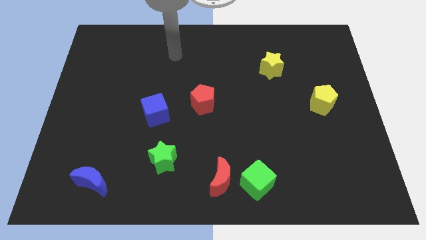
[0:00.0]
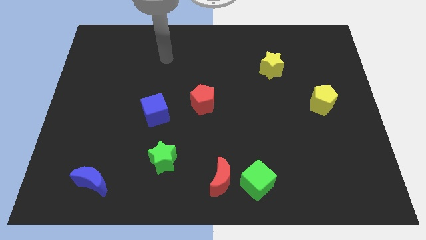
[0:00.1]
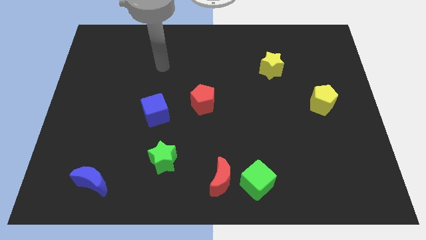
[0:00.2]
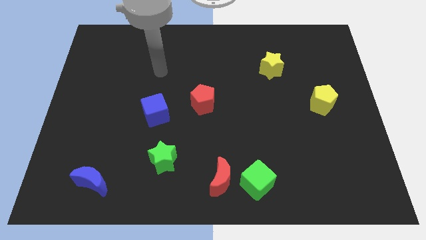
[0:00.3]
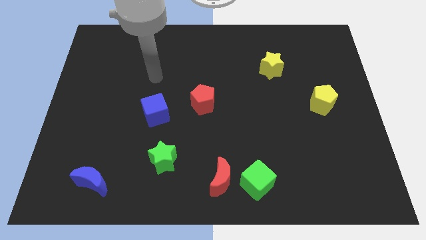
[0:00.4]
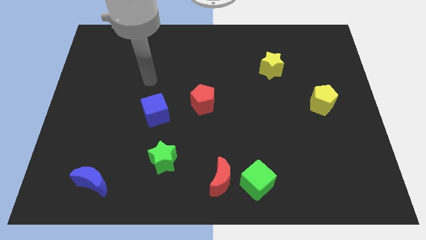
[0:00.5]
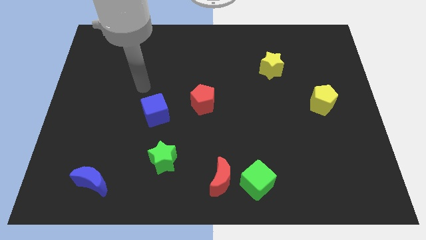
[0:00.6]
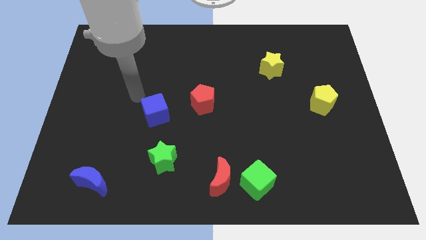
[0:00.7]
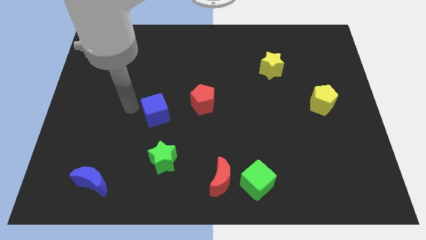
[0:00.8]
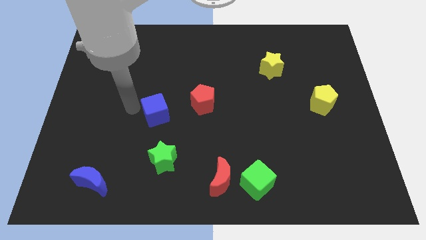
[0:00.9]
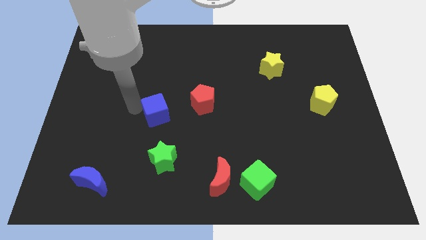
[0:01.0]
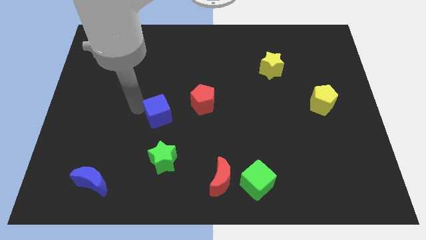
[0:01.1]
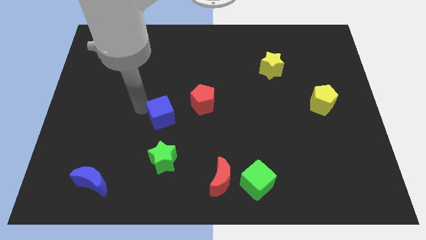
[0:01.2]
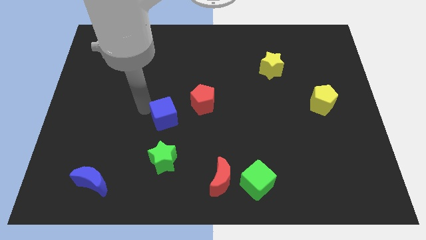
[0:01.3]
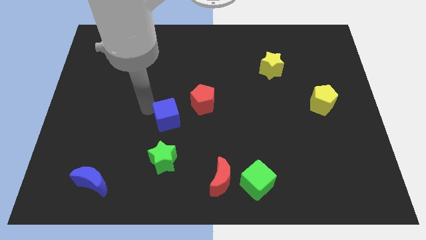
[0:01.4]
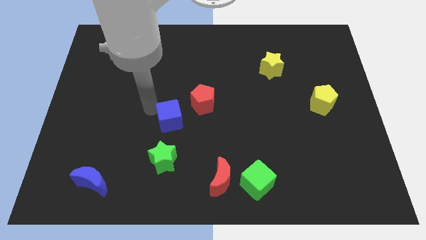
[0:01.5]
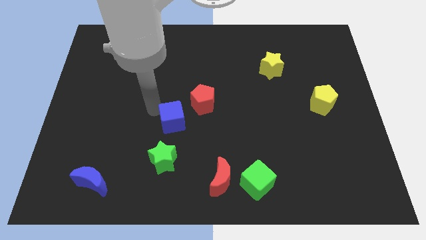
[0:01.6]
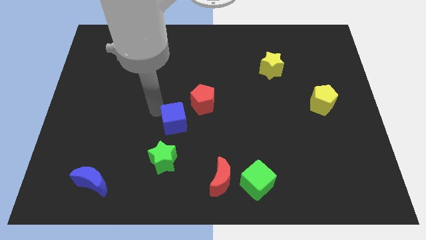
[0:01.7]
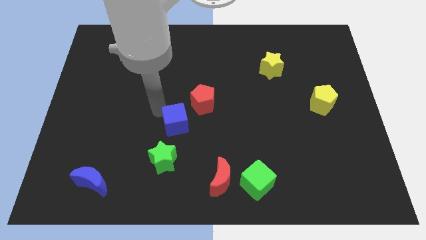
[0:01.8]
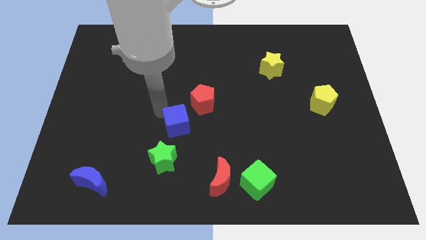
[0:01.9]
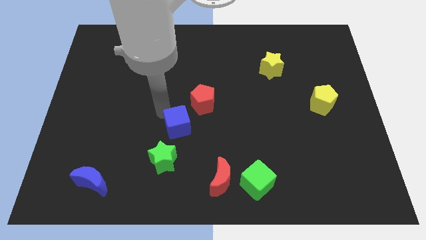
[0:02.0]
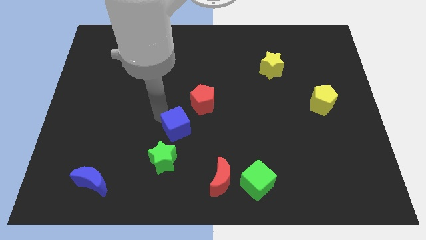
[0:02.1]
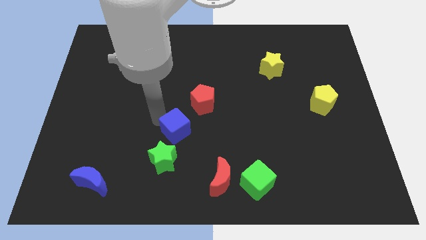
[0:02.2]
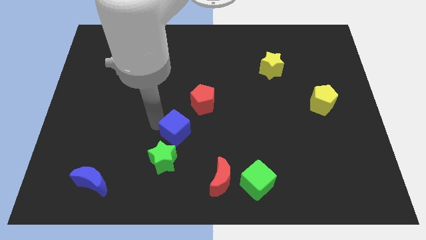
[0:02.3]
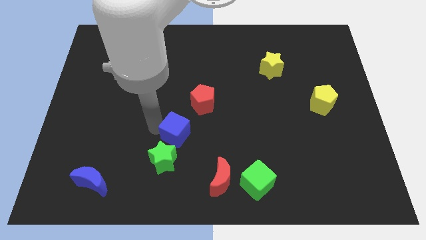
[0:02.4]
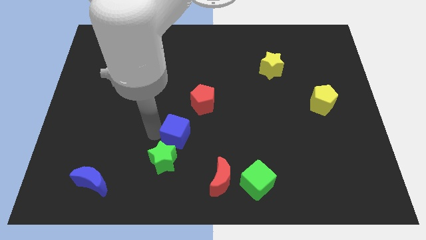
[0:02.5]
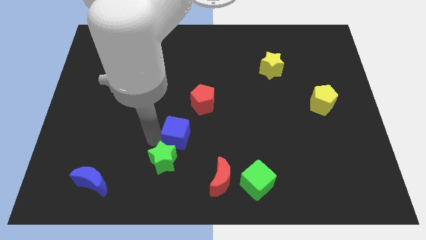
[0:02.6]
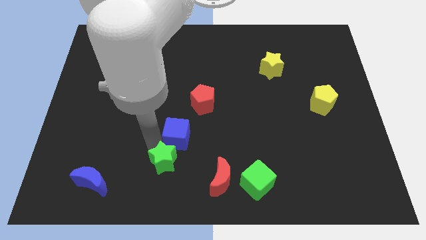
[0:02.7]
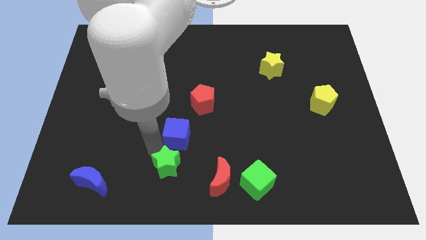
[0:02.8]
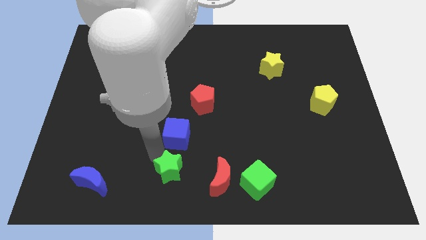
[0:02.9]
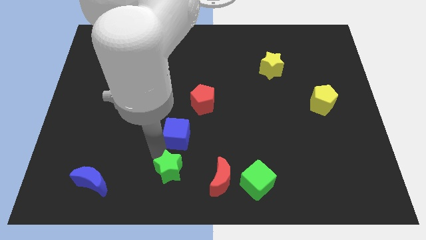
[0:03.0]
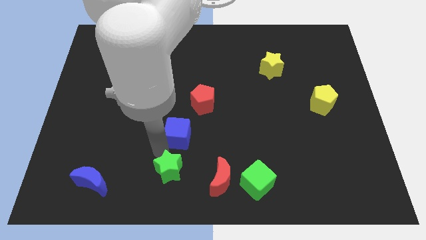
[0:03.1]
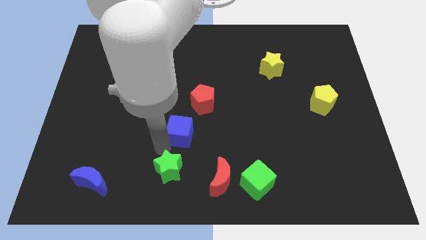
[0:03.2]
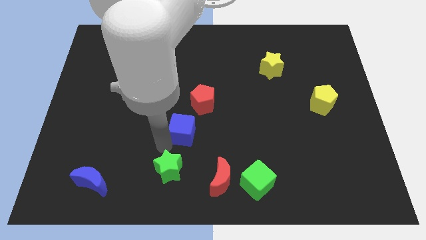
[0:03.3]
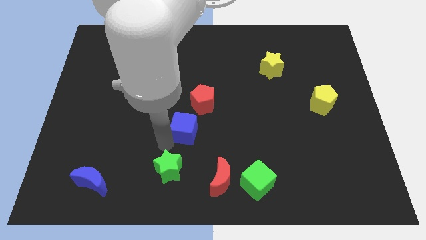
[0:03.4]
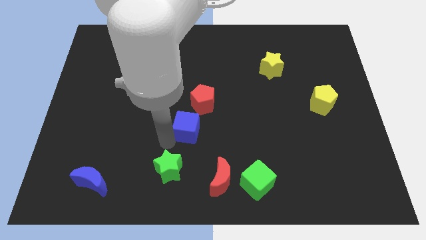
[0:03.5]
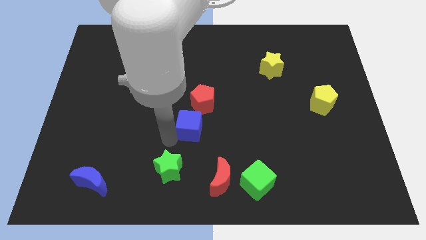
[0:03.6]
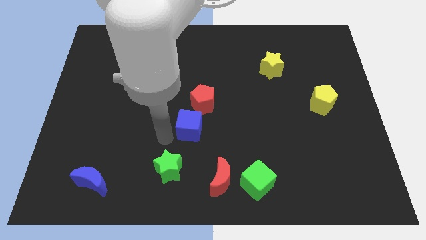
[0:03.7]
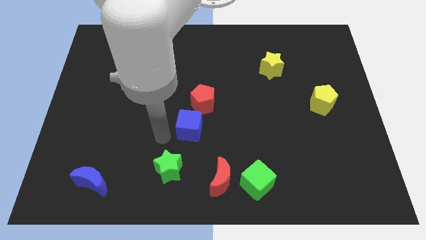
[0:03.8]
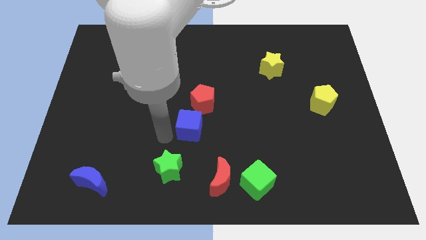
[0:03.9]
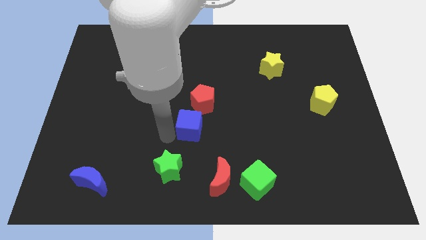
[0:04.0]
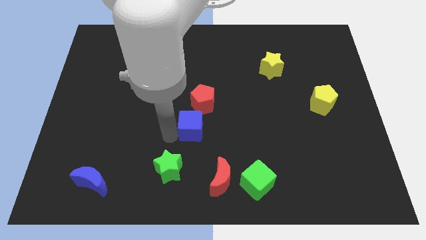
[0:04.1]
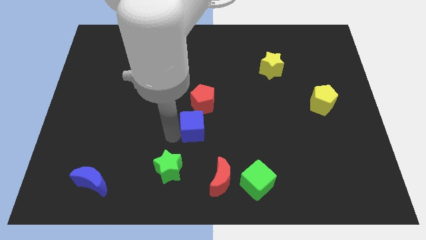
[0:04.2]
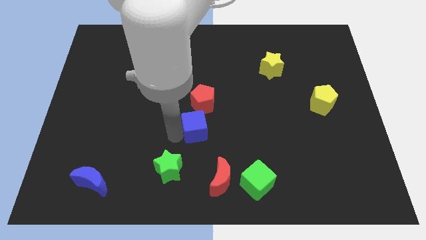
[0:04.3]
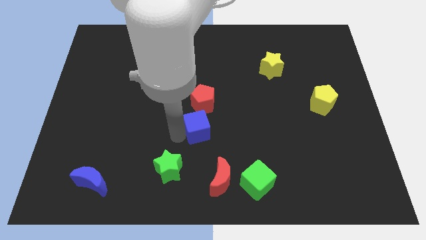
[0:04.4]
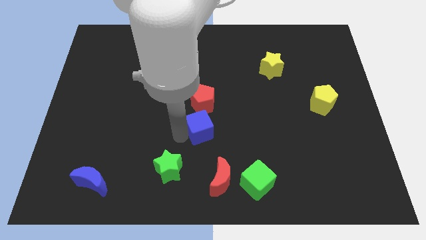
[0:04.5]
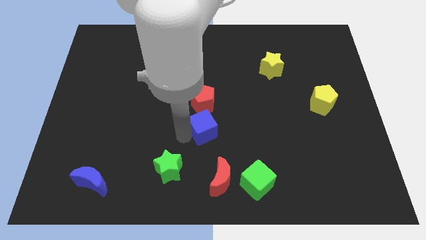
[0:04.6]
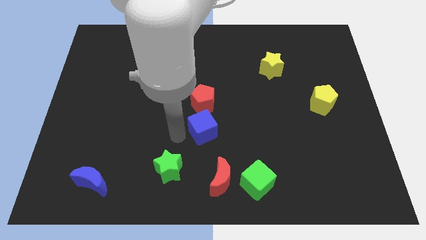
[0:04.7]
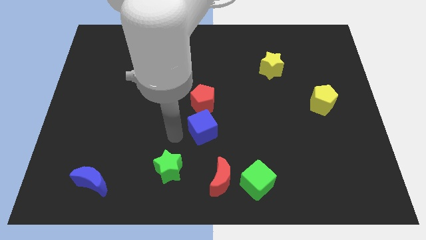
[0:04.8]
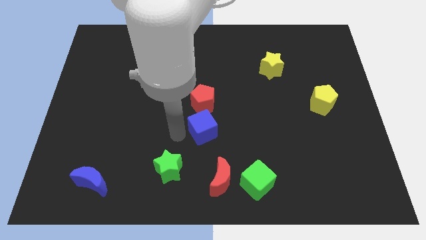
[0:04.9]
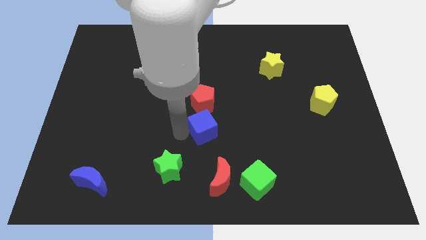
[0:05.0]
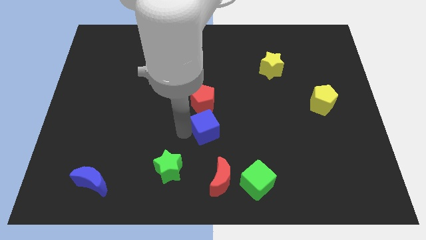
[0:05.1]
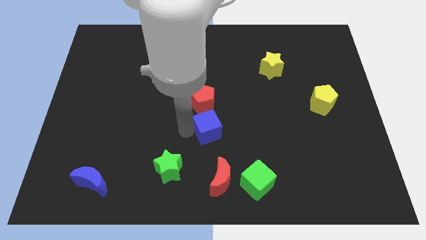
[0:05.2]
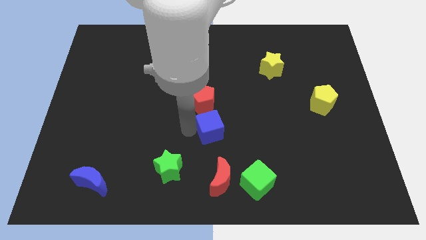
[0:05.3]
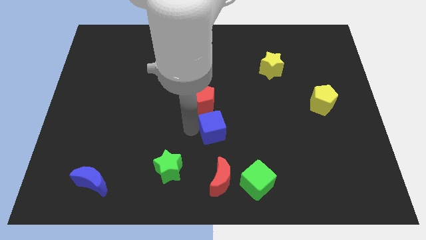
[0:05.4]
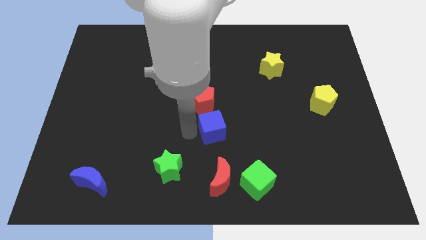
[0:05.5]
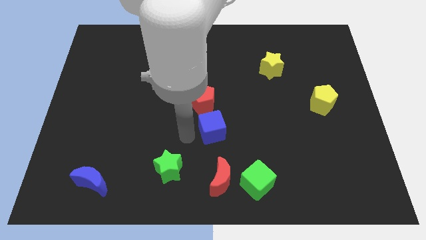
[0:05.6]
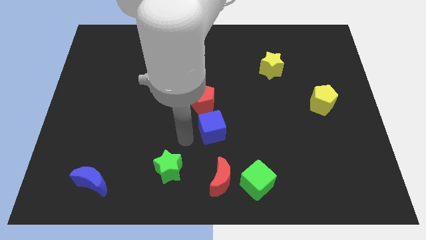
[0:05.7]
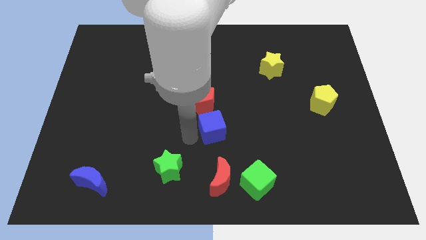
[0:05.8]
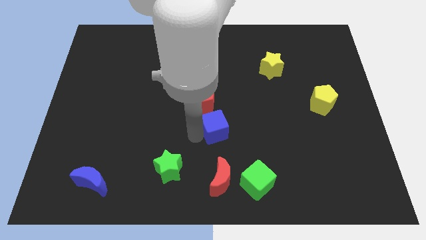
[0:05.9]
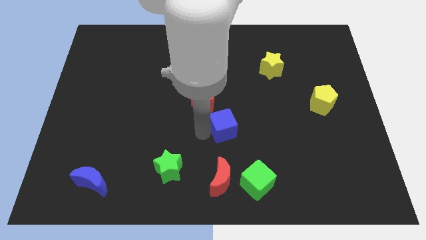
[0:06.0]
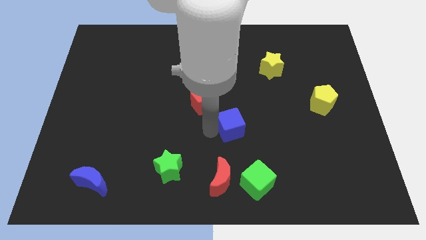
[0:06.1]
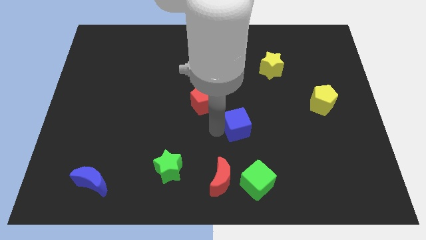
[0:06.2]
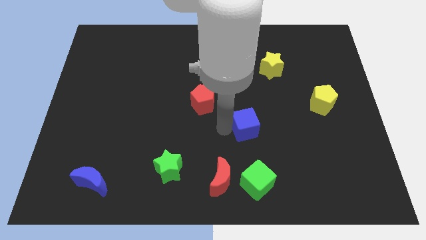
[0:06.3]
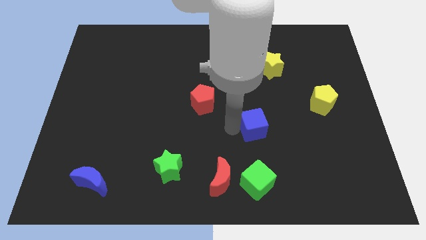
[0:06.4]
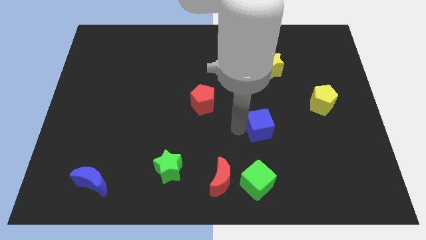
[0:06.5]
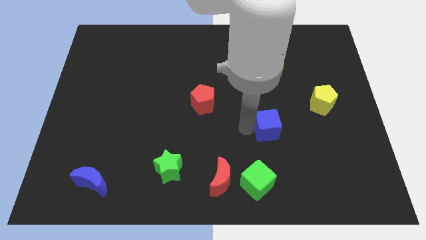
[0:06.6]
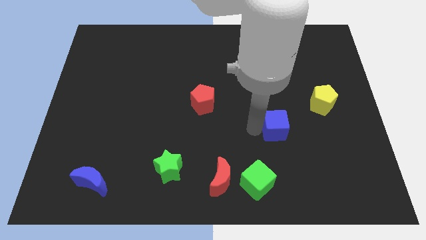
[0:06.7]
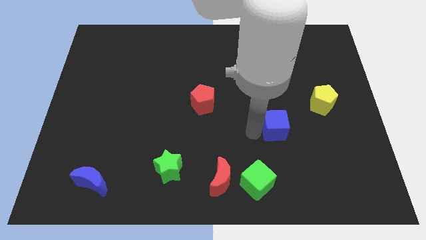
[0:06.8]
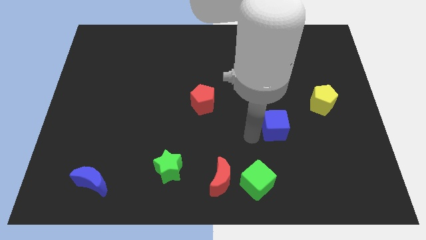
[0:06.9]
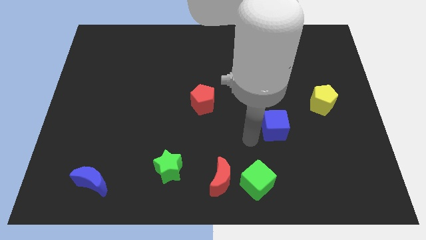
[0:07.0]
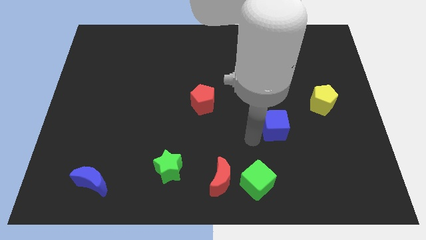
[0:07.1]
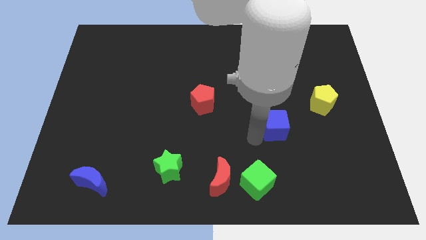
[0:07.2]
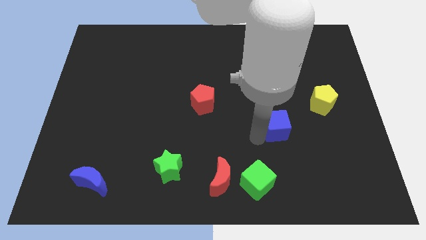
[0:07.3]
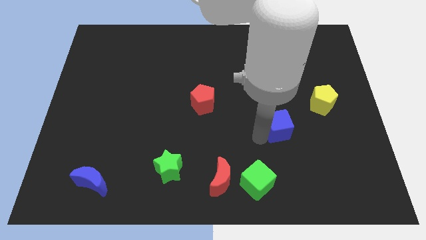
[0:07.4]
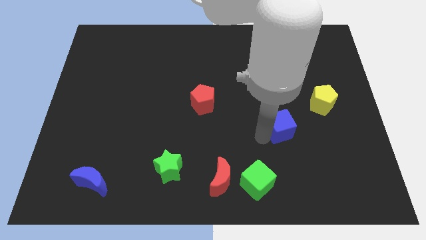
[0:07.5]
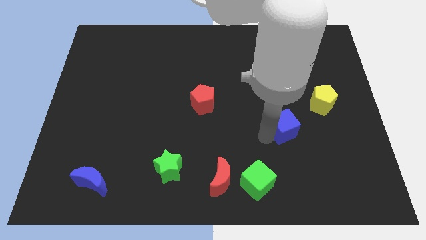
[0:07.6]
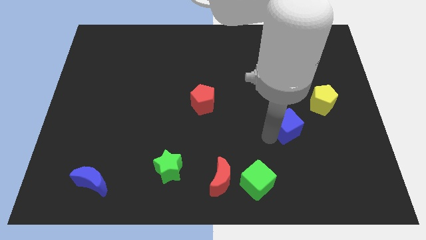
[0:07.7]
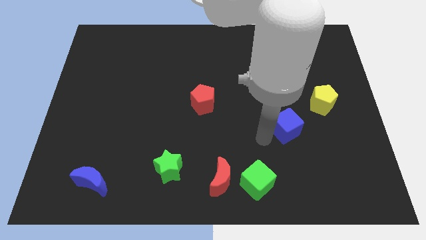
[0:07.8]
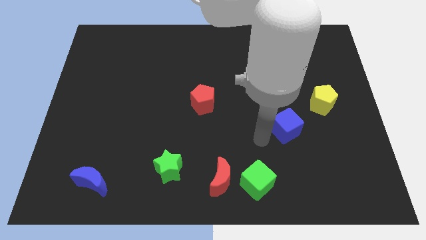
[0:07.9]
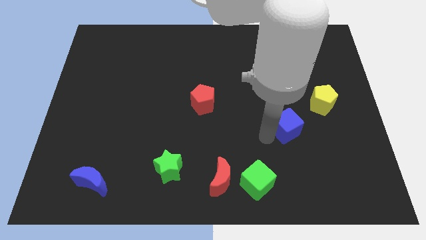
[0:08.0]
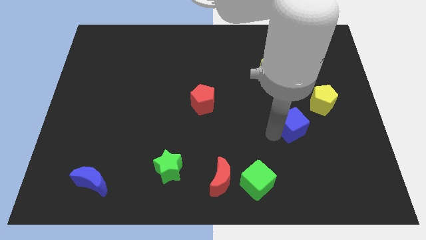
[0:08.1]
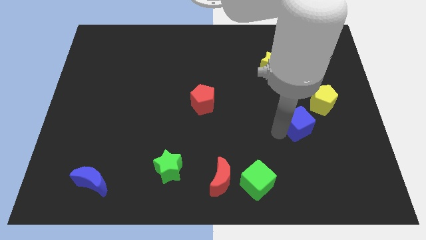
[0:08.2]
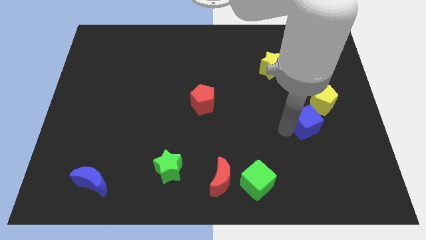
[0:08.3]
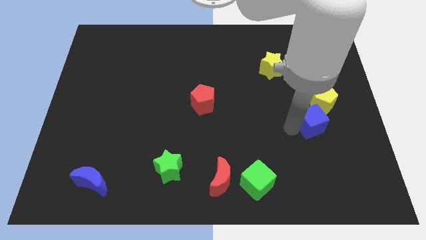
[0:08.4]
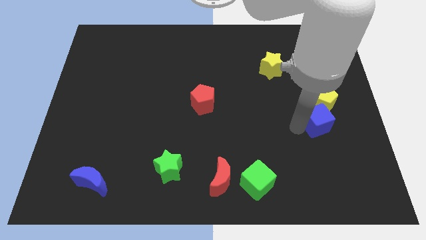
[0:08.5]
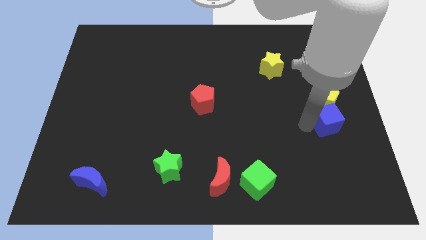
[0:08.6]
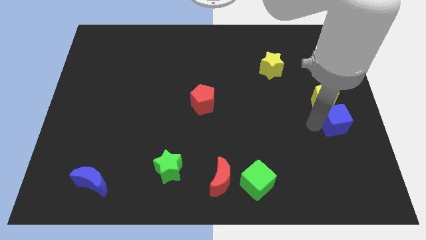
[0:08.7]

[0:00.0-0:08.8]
move the blue cube to the center right
